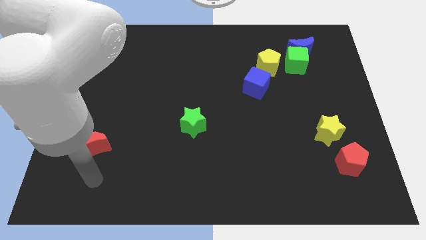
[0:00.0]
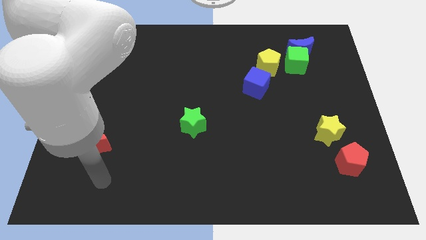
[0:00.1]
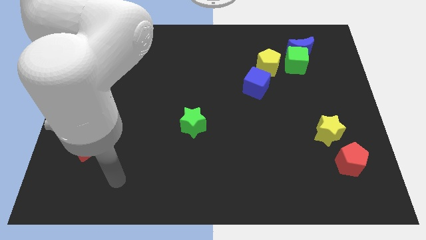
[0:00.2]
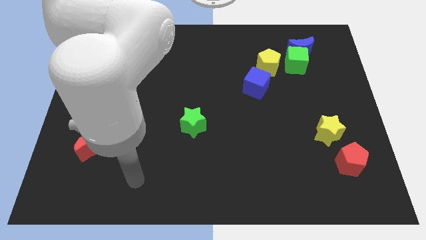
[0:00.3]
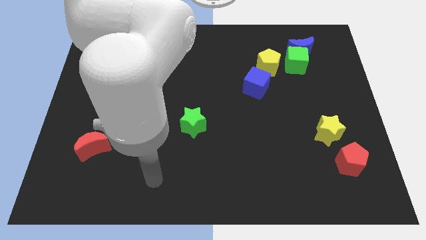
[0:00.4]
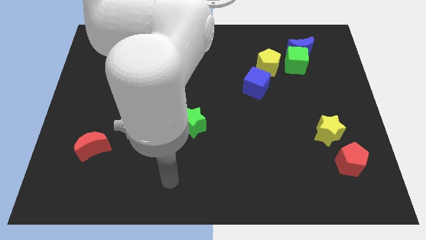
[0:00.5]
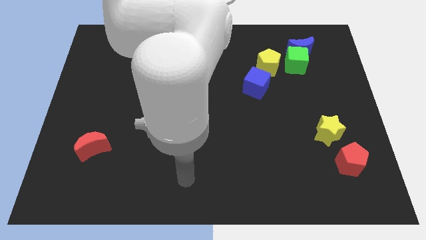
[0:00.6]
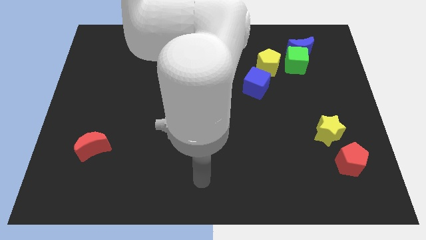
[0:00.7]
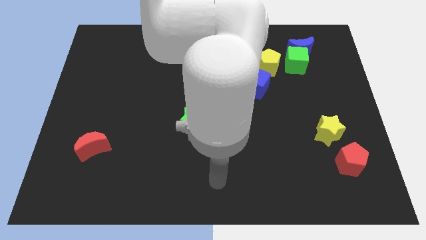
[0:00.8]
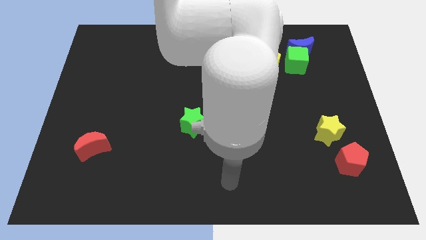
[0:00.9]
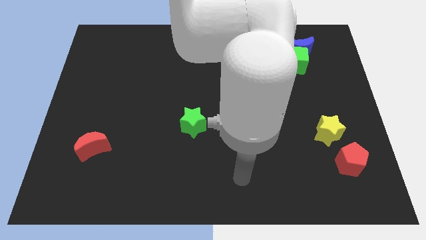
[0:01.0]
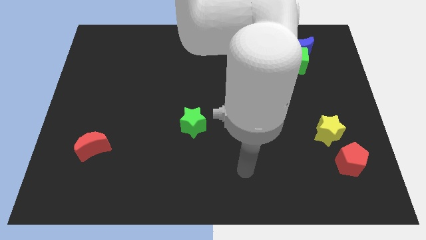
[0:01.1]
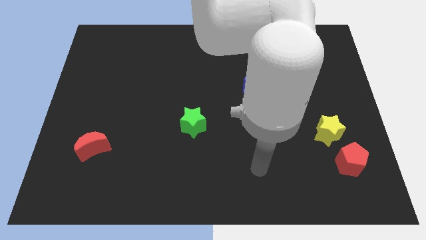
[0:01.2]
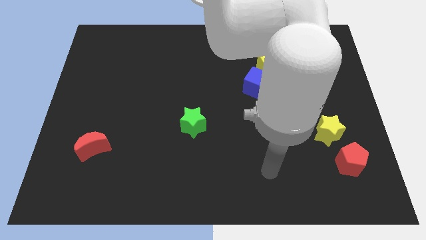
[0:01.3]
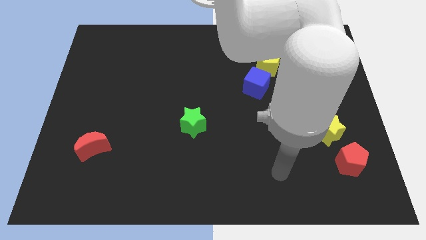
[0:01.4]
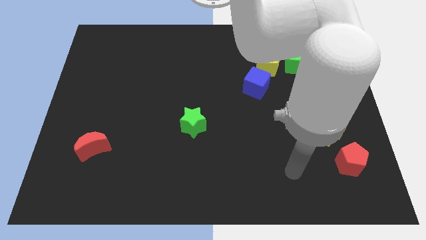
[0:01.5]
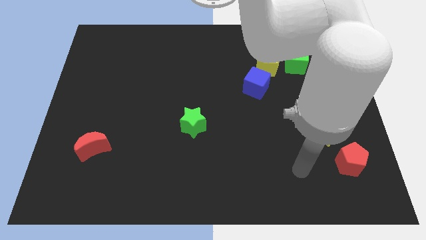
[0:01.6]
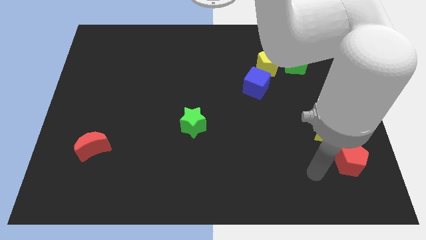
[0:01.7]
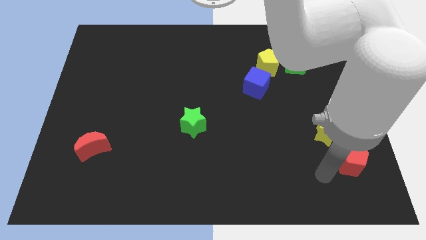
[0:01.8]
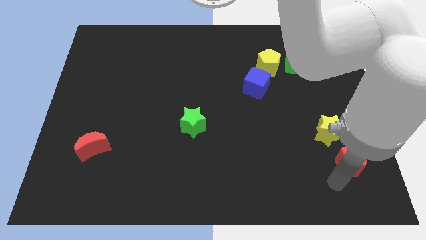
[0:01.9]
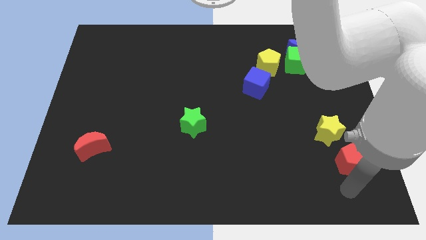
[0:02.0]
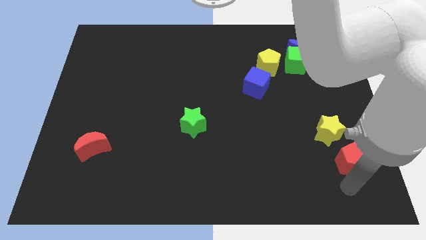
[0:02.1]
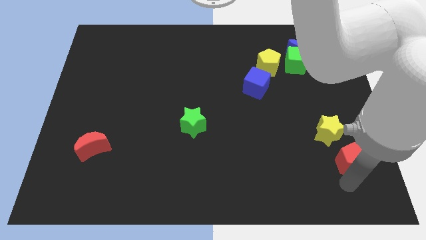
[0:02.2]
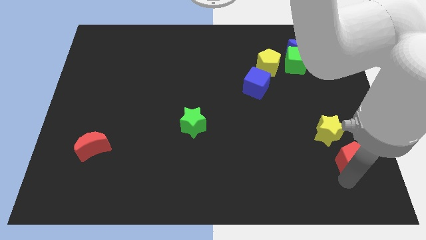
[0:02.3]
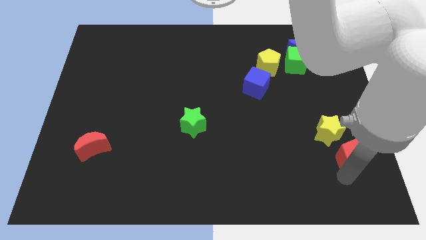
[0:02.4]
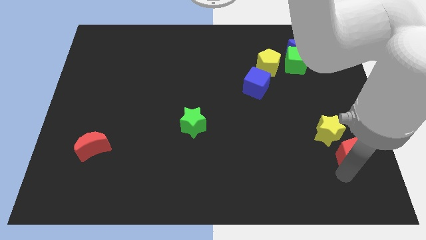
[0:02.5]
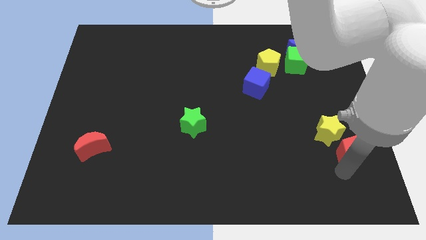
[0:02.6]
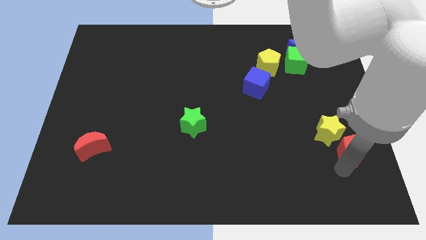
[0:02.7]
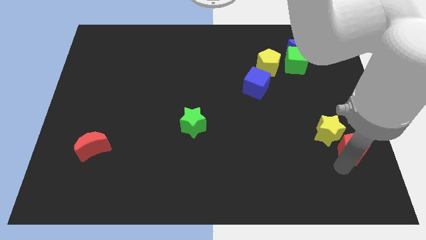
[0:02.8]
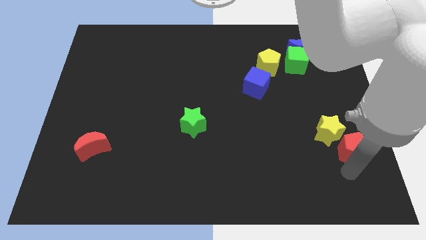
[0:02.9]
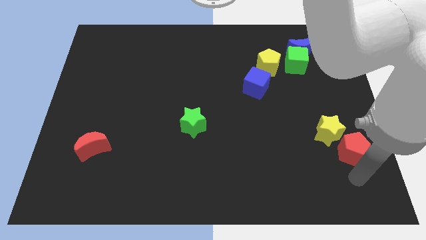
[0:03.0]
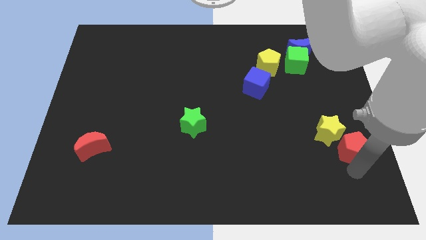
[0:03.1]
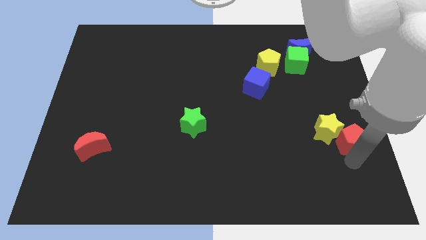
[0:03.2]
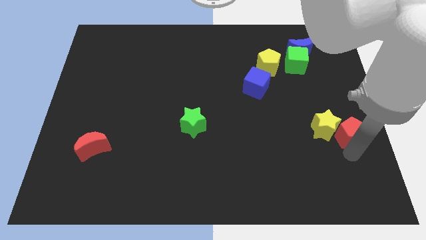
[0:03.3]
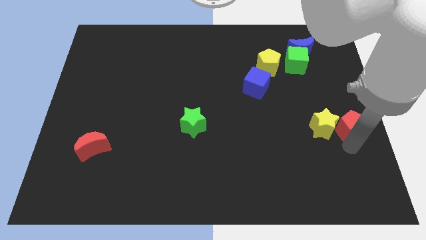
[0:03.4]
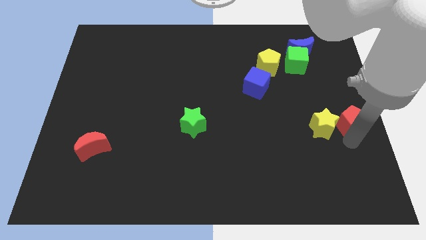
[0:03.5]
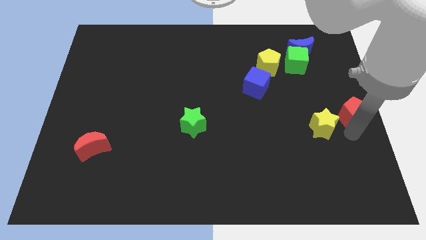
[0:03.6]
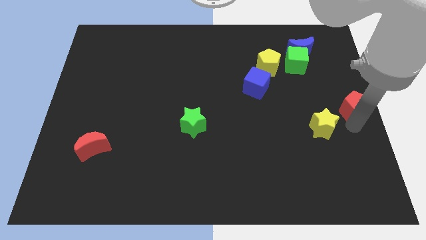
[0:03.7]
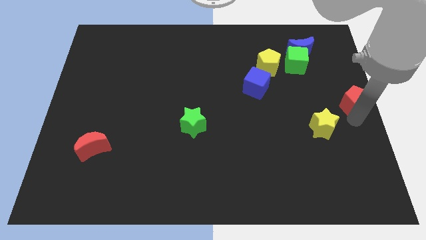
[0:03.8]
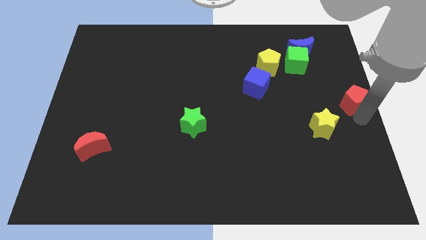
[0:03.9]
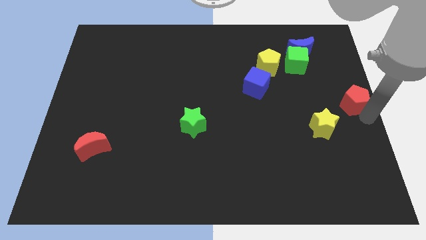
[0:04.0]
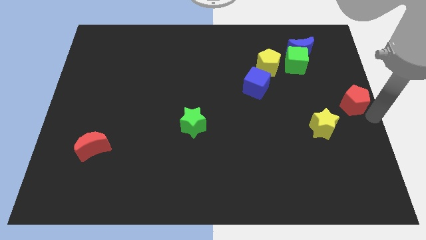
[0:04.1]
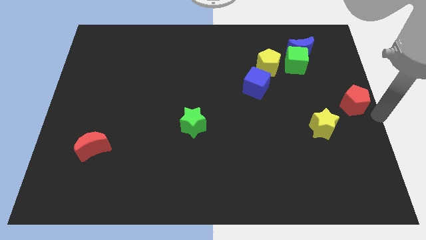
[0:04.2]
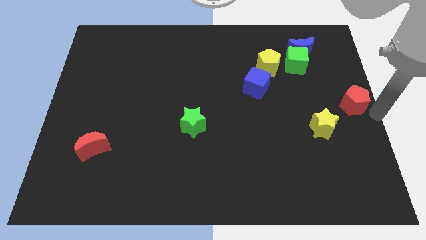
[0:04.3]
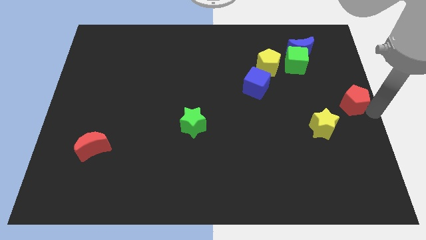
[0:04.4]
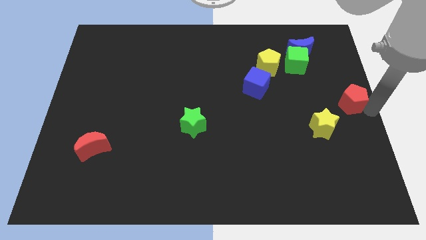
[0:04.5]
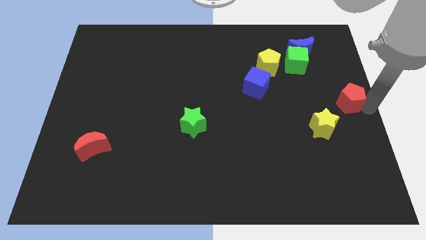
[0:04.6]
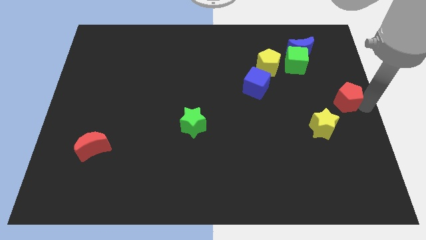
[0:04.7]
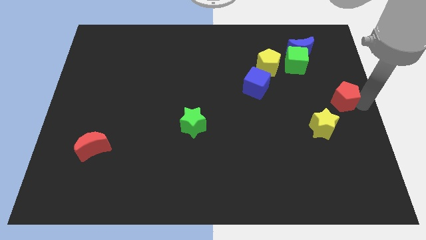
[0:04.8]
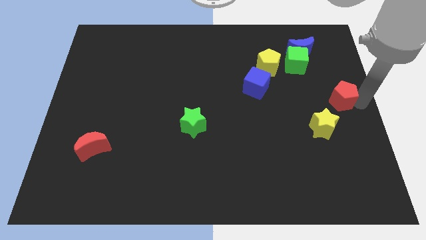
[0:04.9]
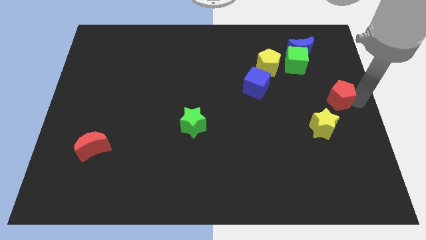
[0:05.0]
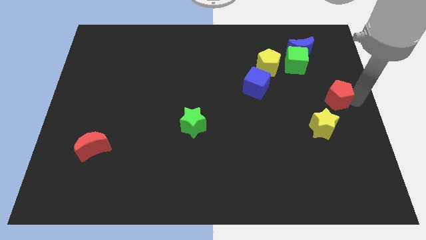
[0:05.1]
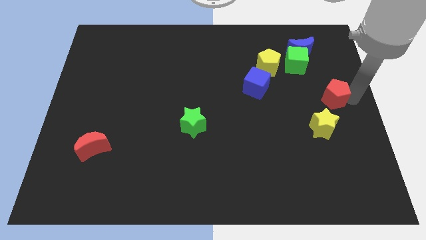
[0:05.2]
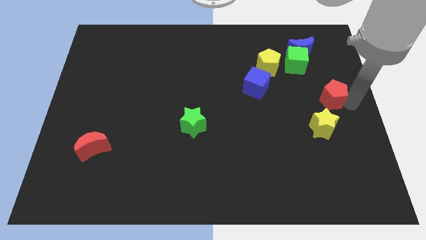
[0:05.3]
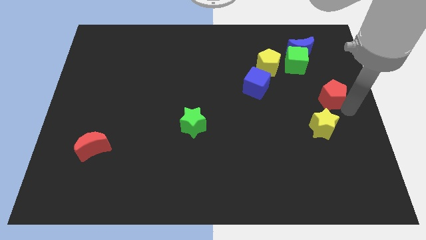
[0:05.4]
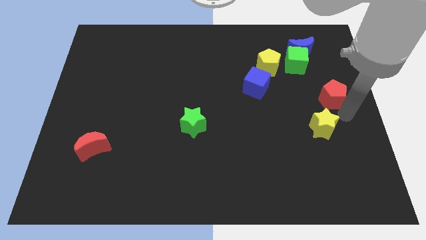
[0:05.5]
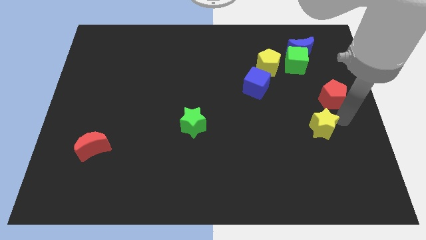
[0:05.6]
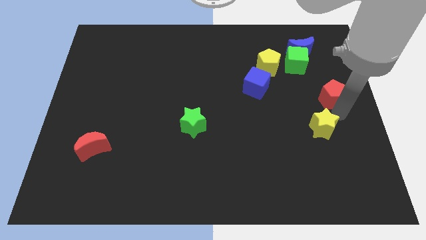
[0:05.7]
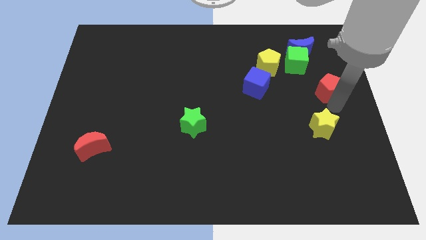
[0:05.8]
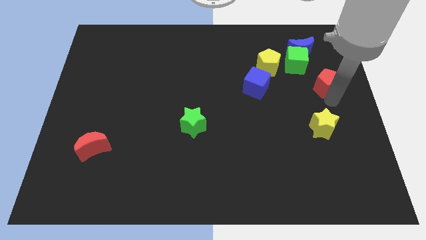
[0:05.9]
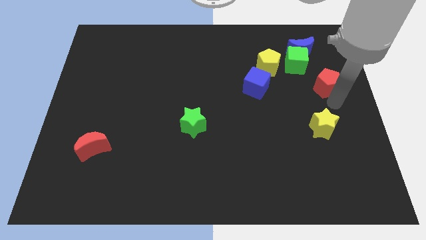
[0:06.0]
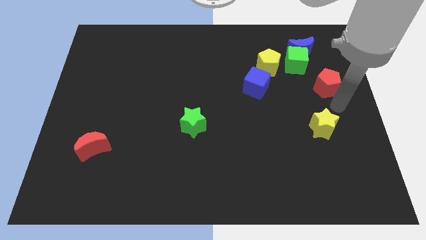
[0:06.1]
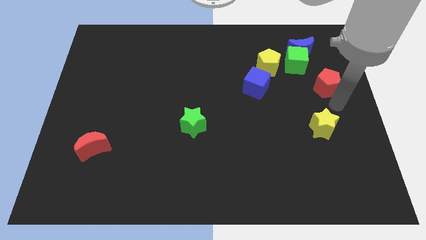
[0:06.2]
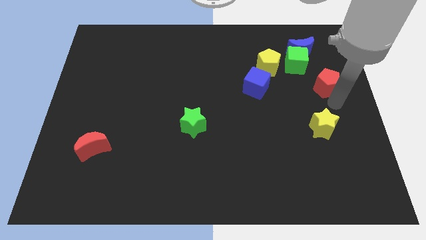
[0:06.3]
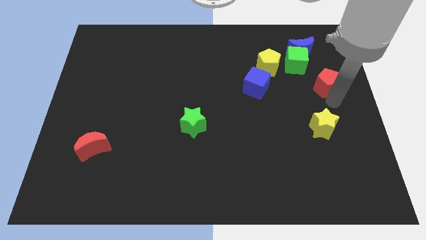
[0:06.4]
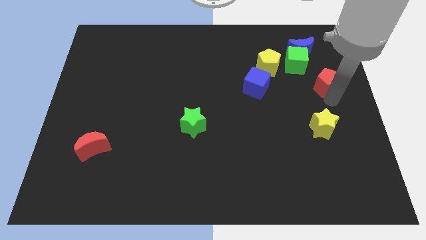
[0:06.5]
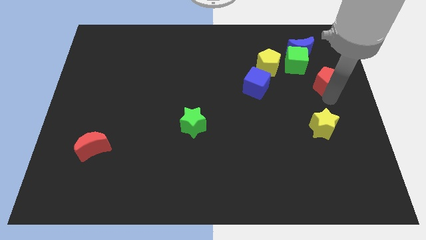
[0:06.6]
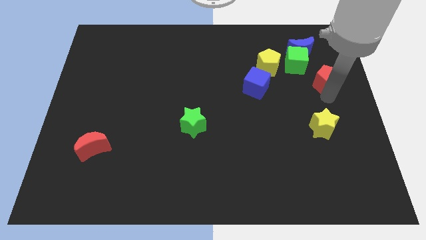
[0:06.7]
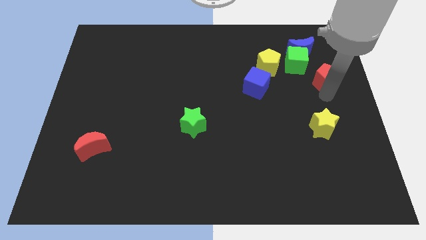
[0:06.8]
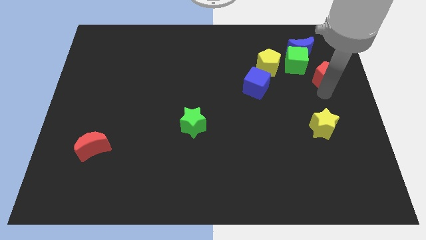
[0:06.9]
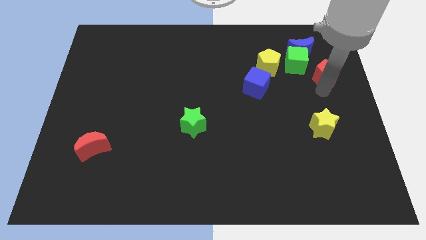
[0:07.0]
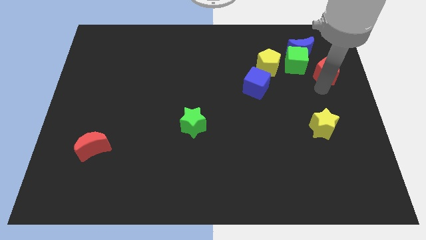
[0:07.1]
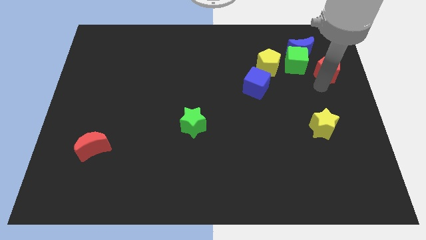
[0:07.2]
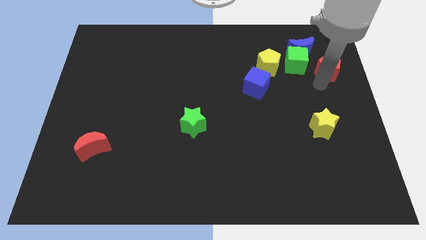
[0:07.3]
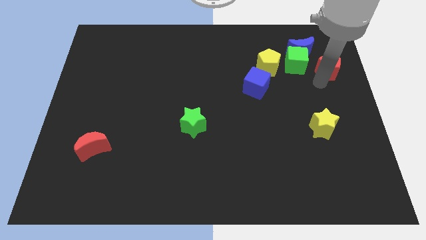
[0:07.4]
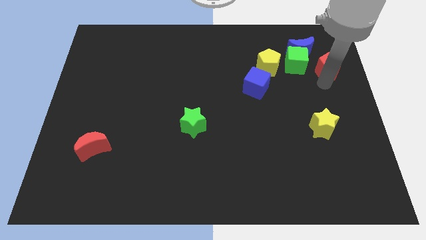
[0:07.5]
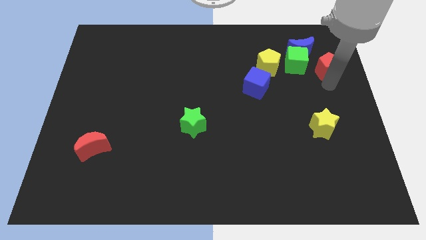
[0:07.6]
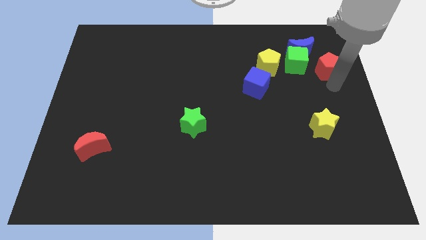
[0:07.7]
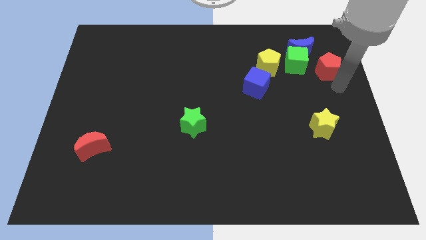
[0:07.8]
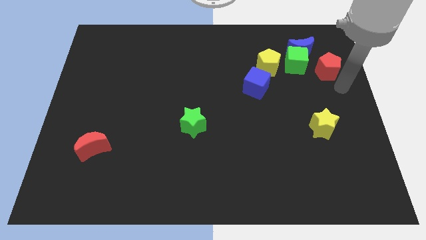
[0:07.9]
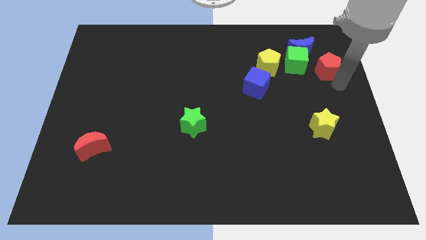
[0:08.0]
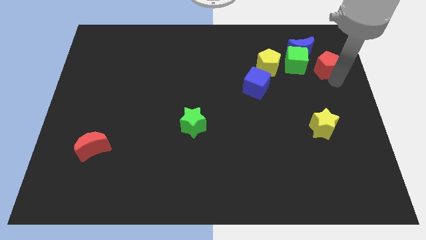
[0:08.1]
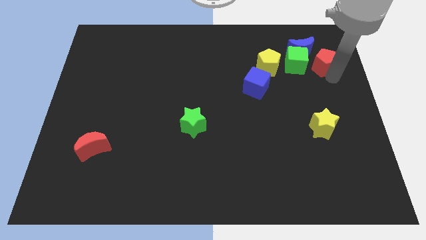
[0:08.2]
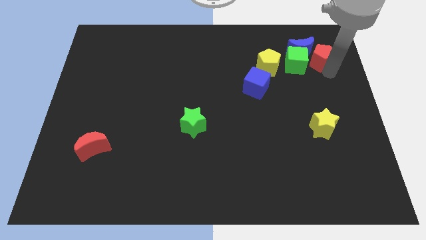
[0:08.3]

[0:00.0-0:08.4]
move the red pentagon to the blue moon
